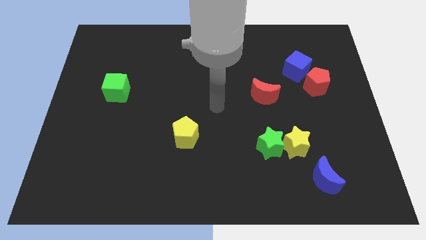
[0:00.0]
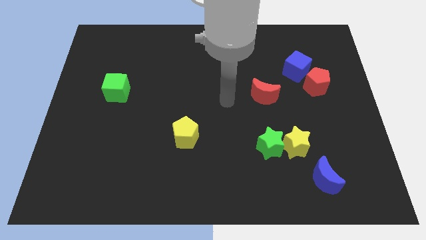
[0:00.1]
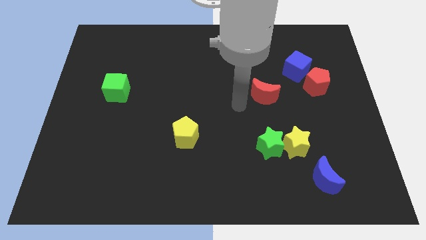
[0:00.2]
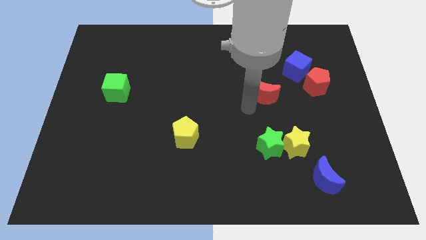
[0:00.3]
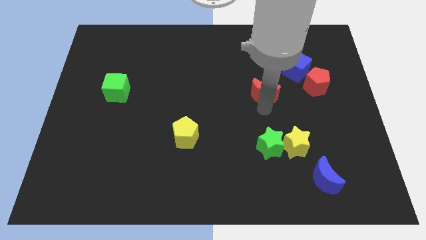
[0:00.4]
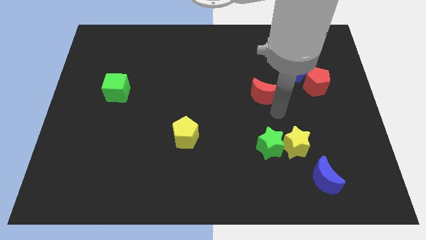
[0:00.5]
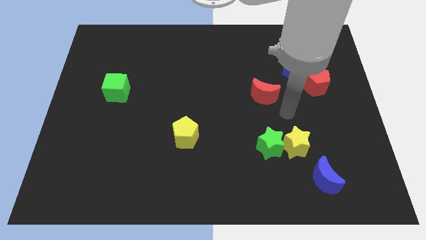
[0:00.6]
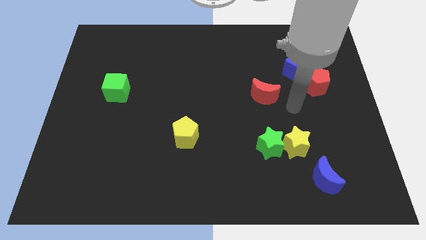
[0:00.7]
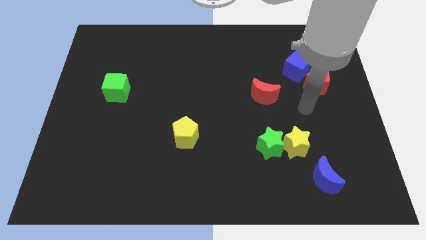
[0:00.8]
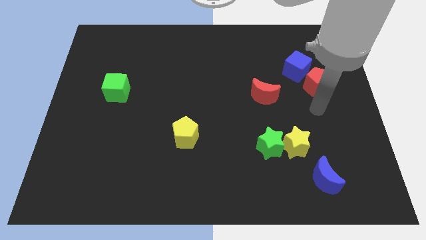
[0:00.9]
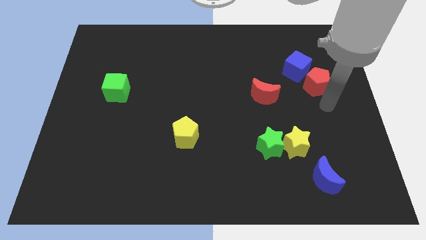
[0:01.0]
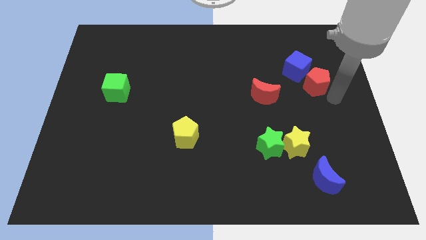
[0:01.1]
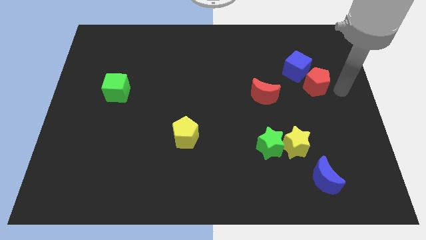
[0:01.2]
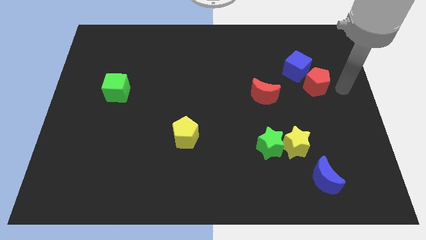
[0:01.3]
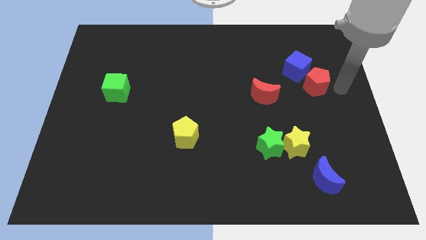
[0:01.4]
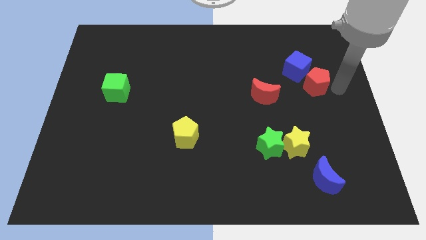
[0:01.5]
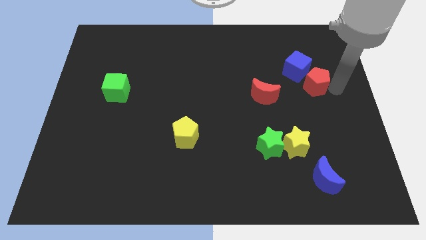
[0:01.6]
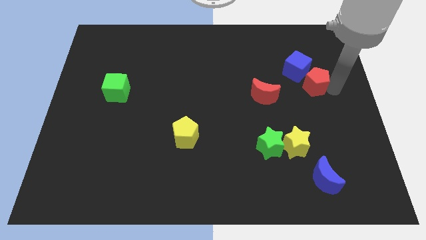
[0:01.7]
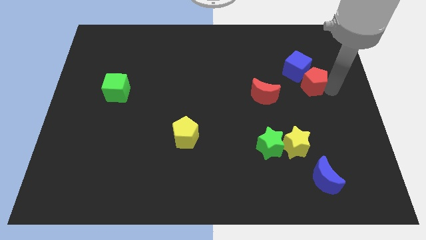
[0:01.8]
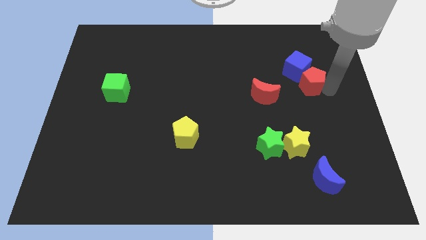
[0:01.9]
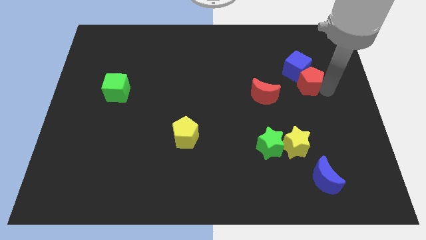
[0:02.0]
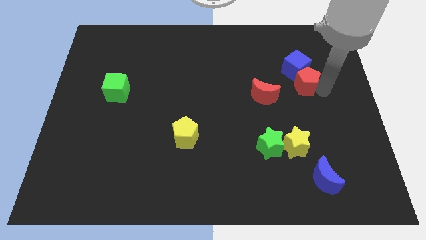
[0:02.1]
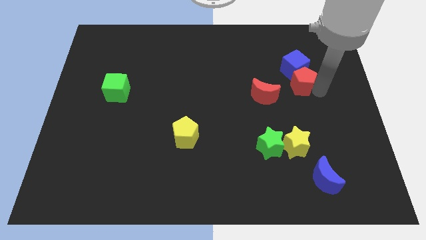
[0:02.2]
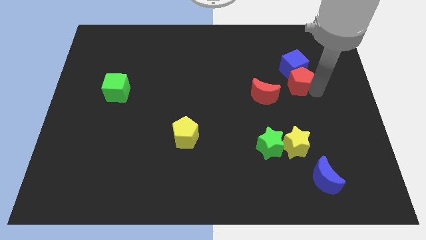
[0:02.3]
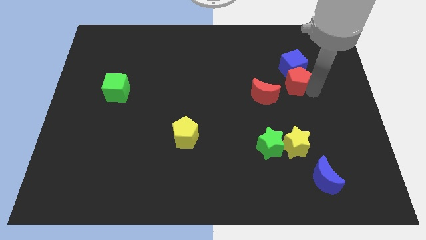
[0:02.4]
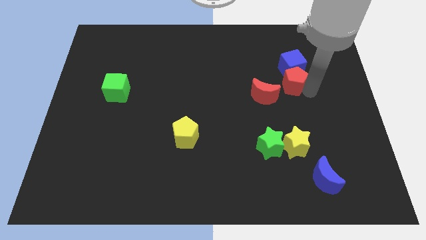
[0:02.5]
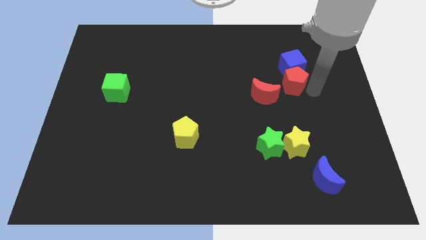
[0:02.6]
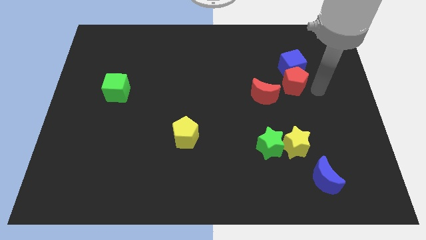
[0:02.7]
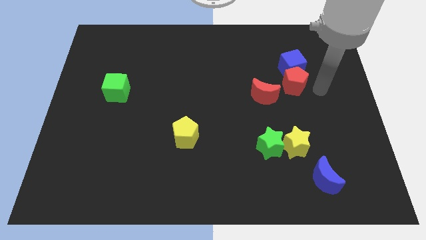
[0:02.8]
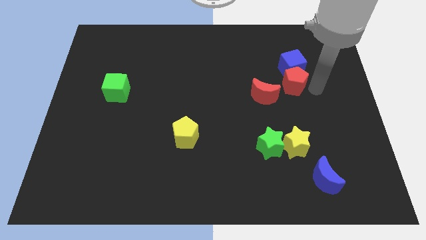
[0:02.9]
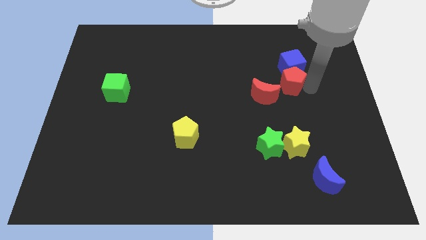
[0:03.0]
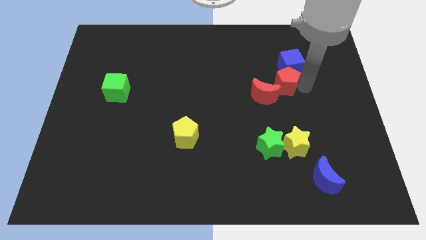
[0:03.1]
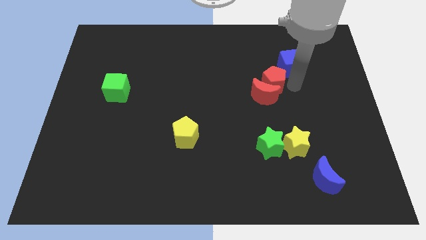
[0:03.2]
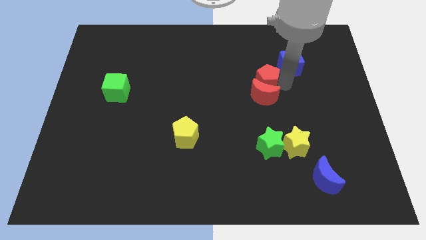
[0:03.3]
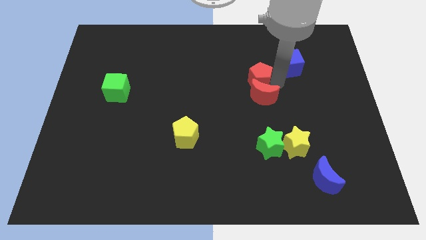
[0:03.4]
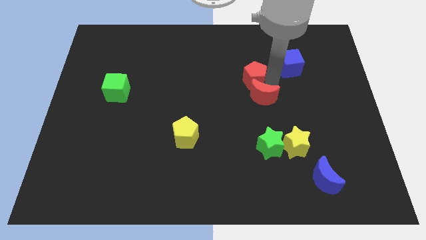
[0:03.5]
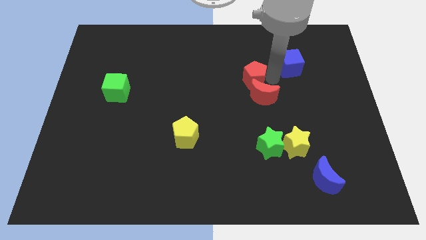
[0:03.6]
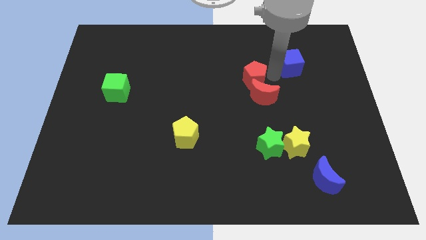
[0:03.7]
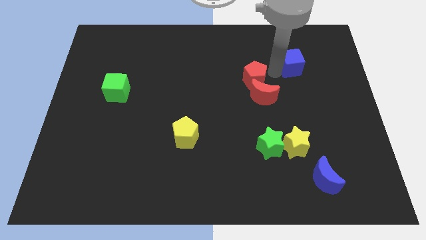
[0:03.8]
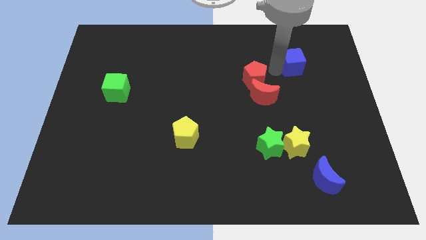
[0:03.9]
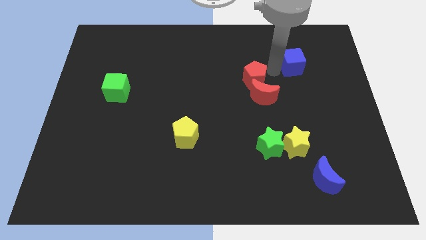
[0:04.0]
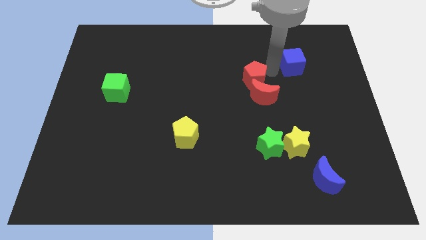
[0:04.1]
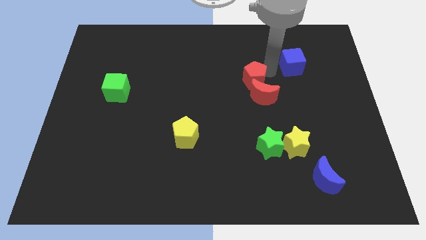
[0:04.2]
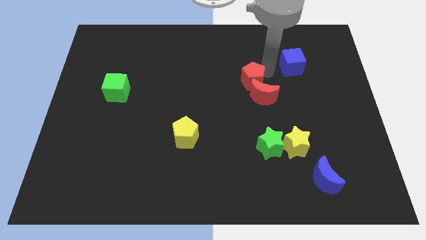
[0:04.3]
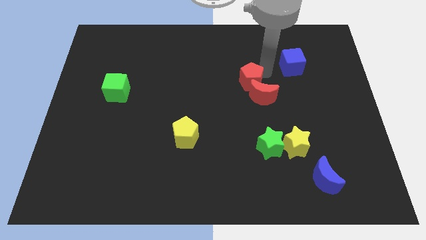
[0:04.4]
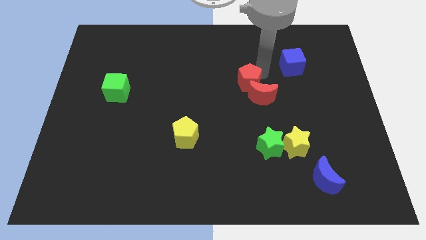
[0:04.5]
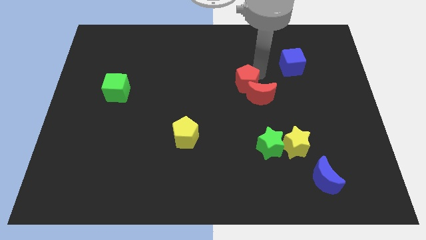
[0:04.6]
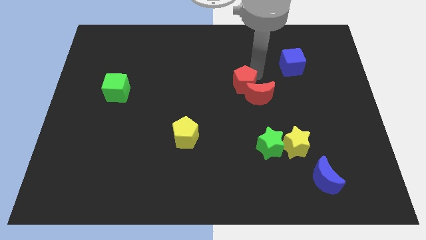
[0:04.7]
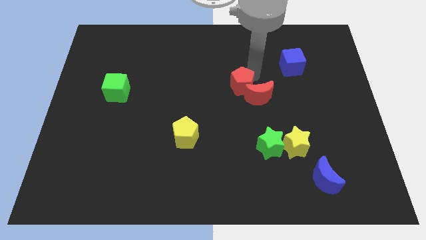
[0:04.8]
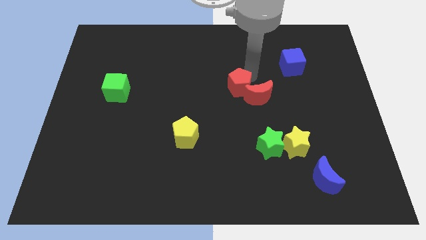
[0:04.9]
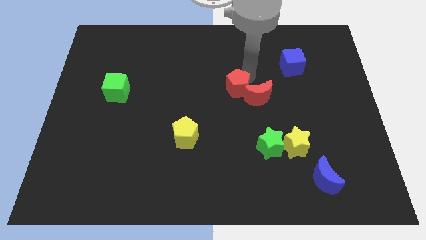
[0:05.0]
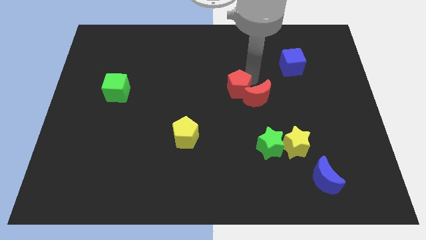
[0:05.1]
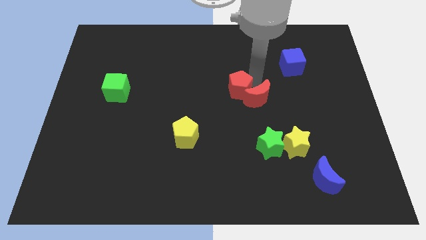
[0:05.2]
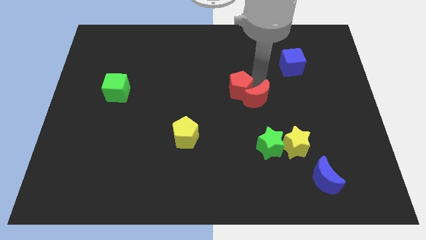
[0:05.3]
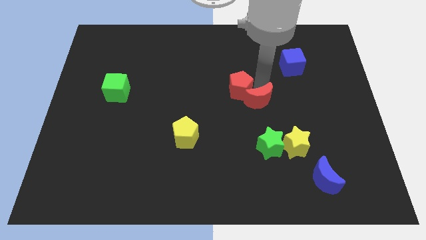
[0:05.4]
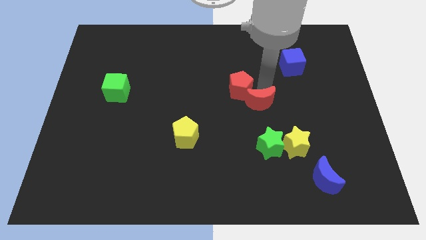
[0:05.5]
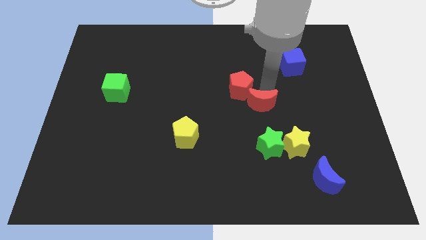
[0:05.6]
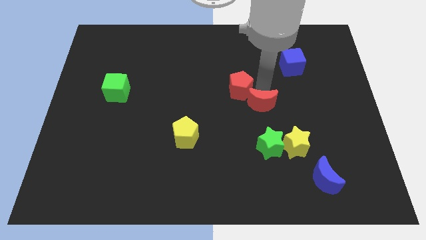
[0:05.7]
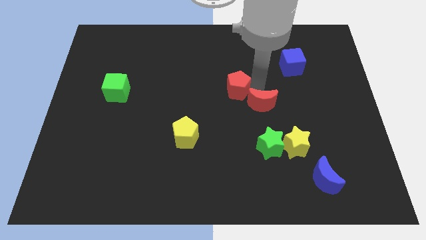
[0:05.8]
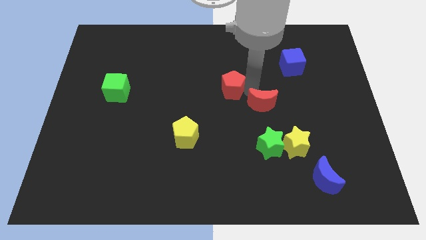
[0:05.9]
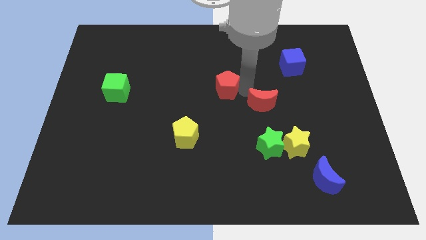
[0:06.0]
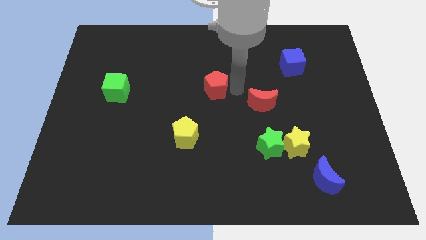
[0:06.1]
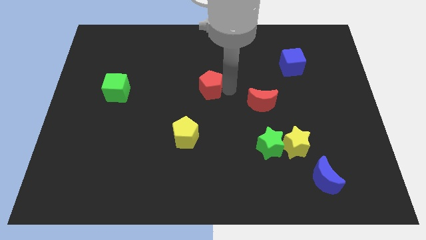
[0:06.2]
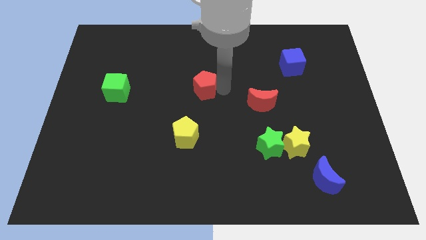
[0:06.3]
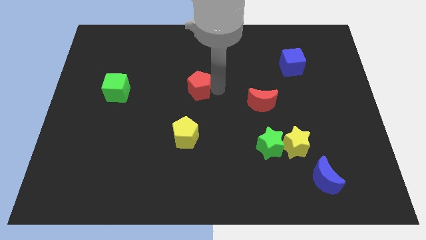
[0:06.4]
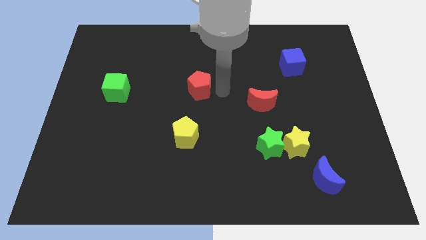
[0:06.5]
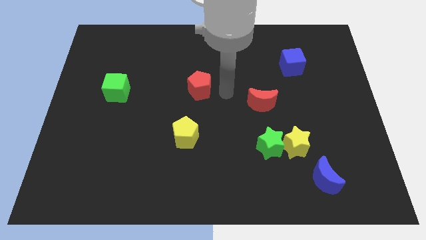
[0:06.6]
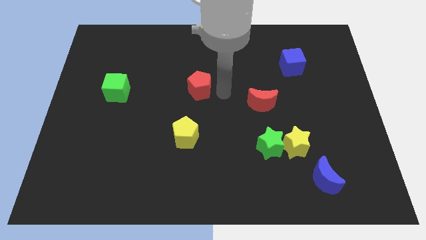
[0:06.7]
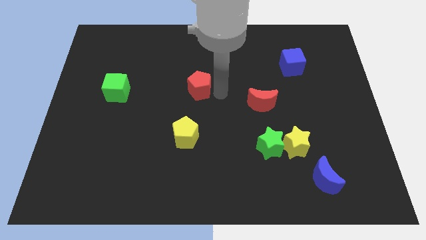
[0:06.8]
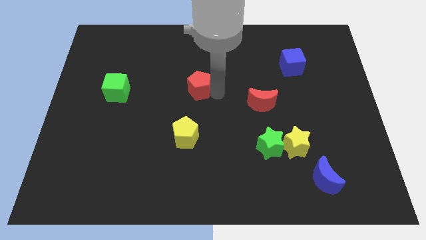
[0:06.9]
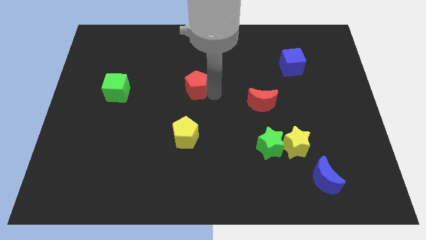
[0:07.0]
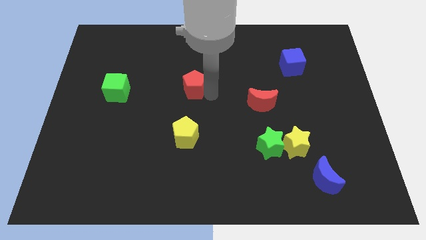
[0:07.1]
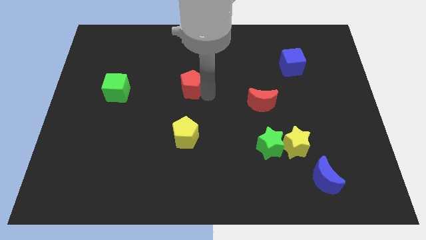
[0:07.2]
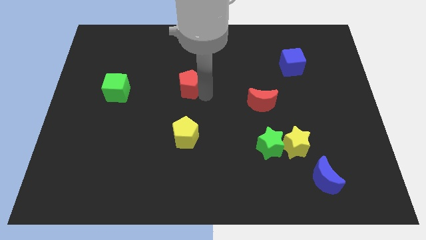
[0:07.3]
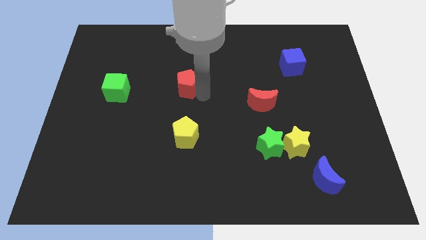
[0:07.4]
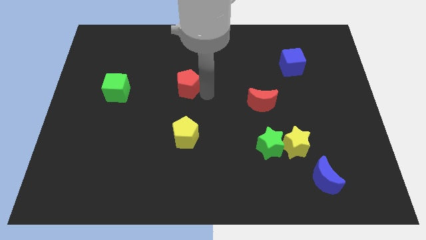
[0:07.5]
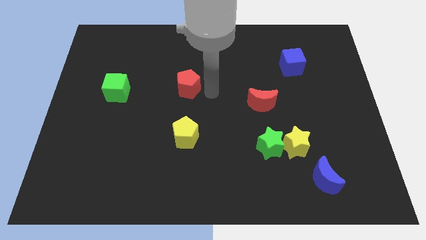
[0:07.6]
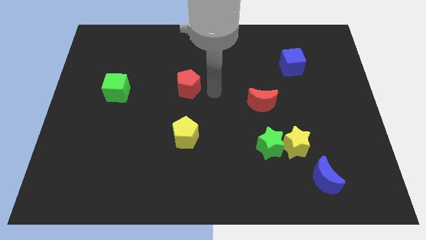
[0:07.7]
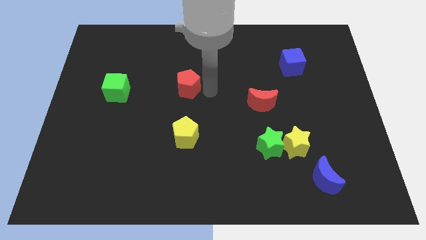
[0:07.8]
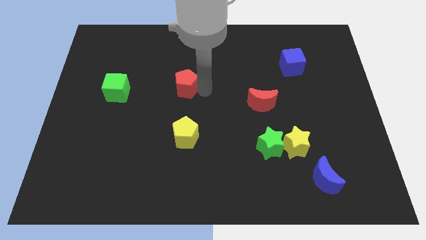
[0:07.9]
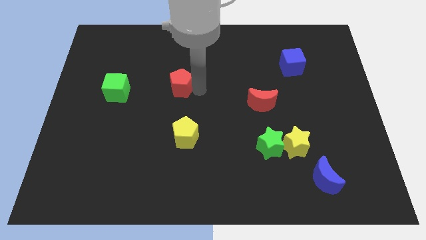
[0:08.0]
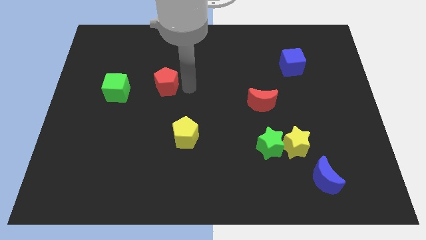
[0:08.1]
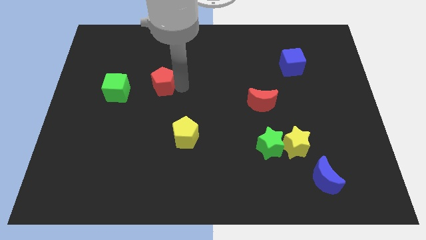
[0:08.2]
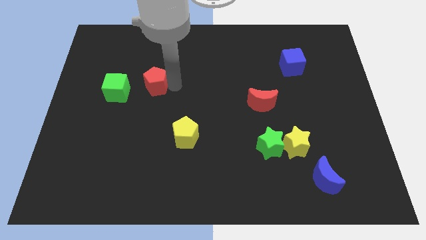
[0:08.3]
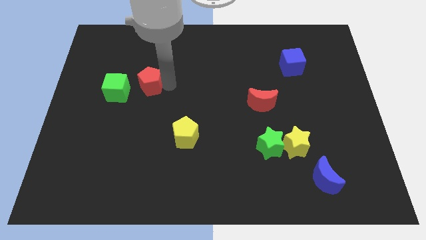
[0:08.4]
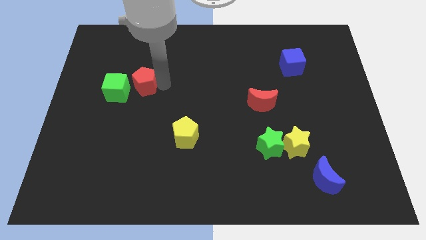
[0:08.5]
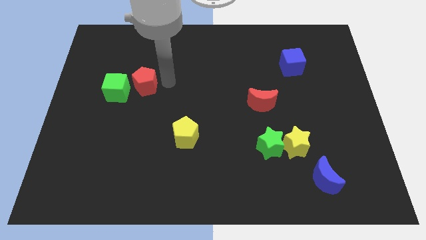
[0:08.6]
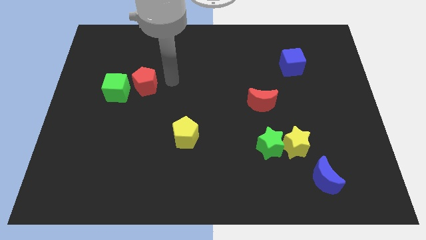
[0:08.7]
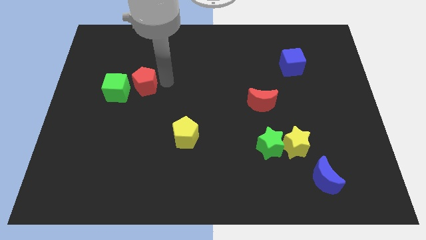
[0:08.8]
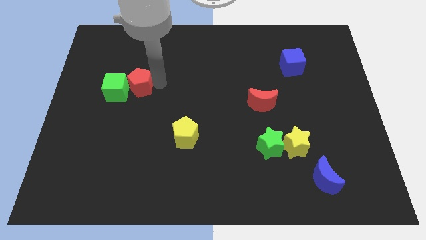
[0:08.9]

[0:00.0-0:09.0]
move the red pentagon to the green cube
